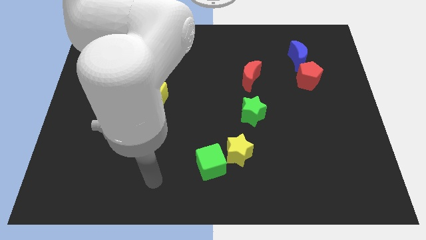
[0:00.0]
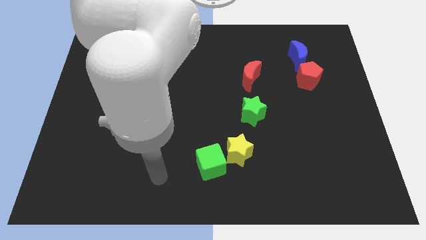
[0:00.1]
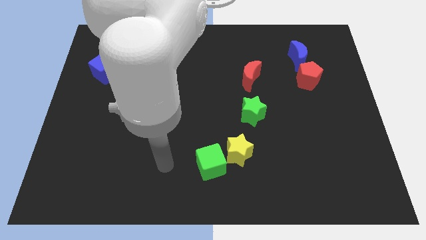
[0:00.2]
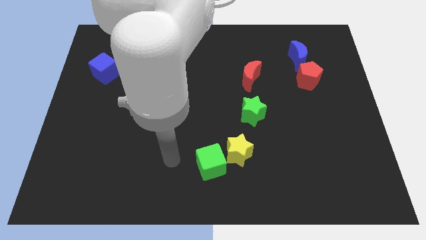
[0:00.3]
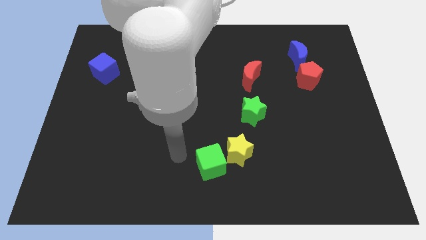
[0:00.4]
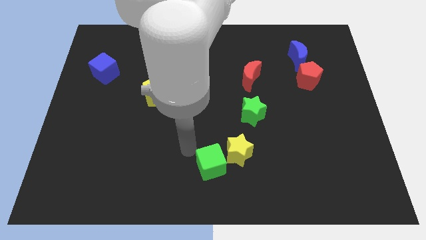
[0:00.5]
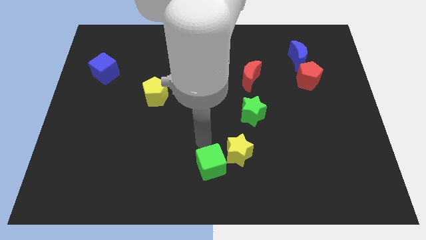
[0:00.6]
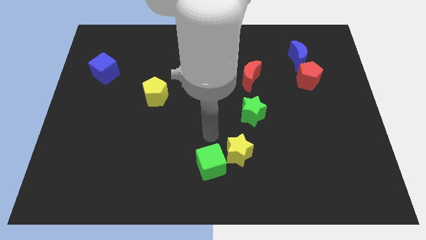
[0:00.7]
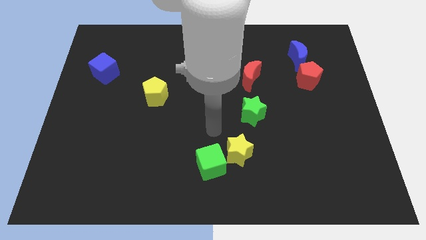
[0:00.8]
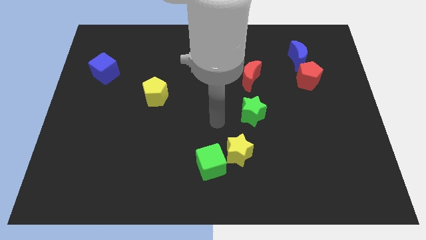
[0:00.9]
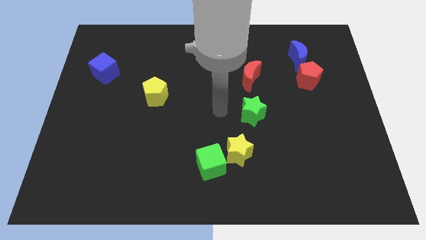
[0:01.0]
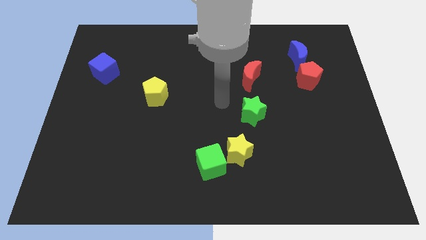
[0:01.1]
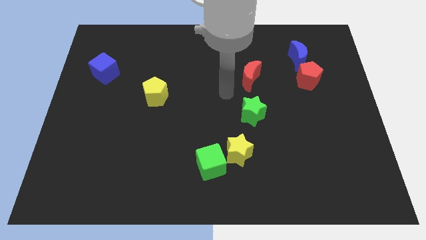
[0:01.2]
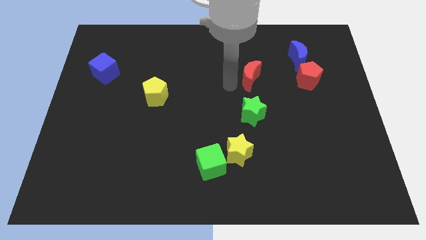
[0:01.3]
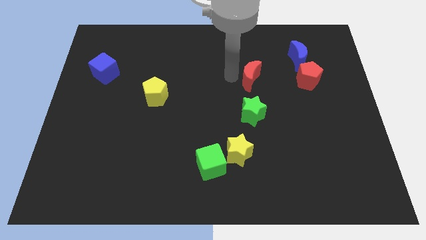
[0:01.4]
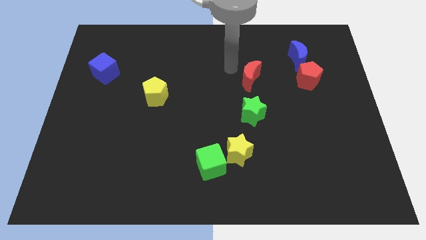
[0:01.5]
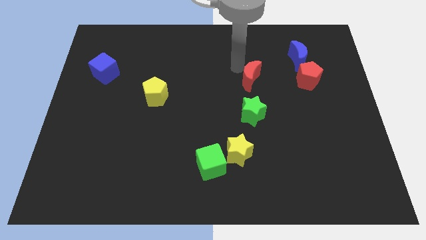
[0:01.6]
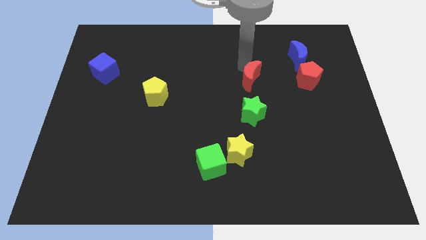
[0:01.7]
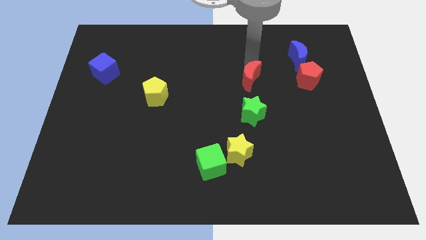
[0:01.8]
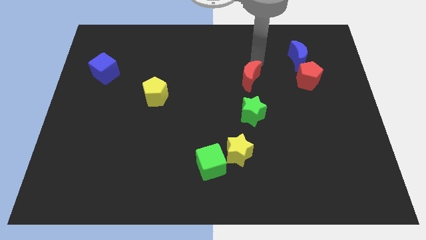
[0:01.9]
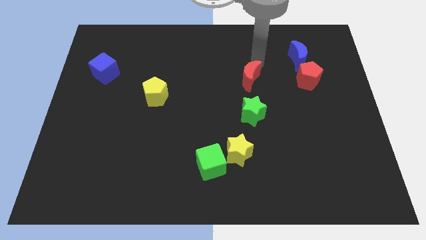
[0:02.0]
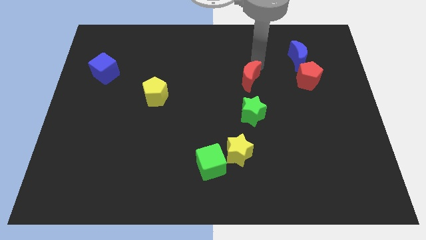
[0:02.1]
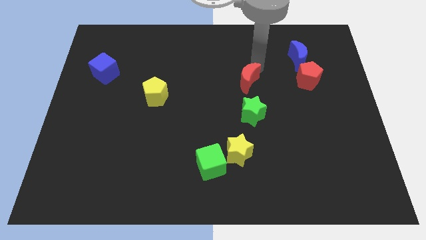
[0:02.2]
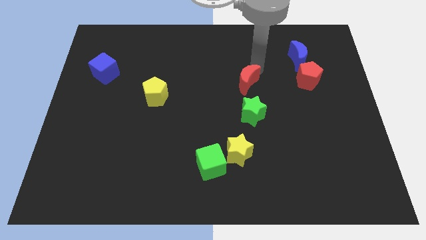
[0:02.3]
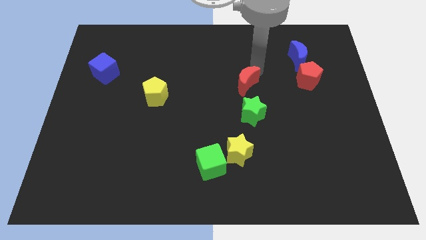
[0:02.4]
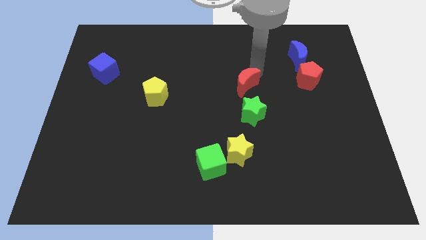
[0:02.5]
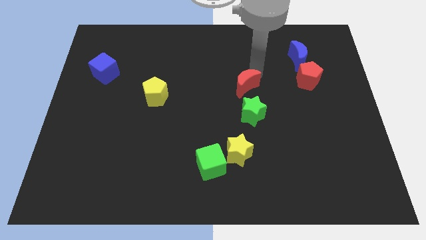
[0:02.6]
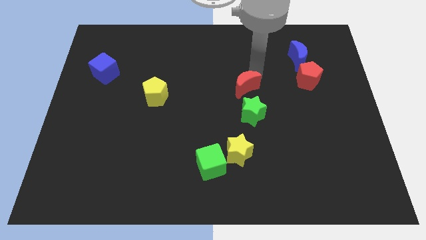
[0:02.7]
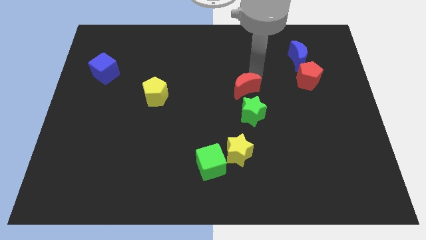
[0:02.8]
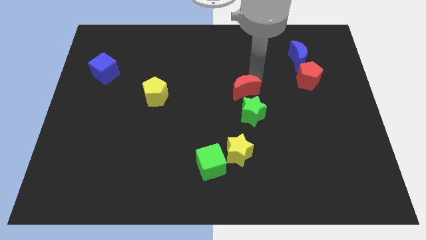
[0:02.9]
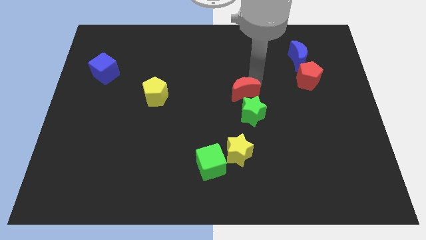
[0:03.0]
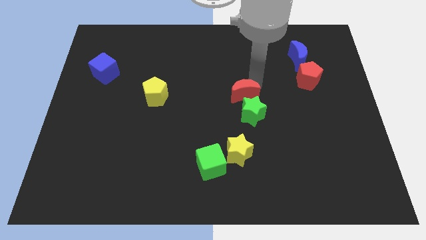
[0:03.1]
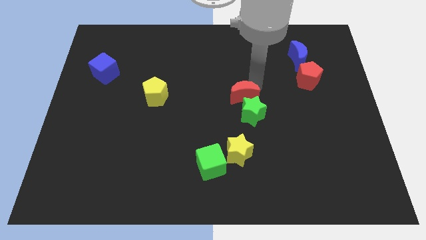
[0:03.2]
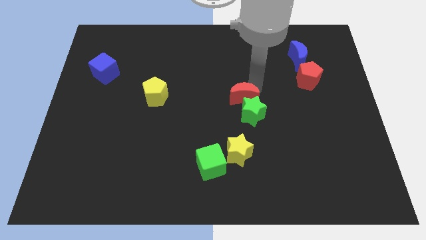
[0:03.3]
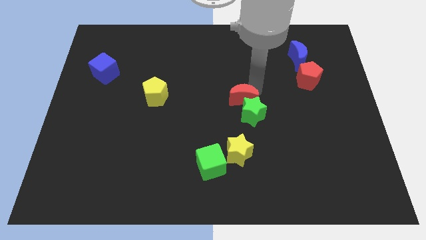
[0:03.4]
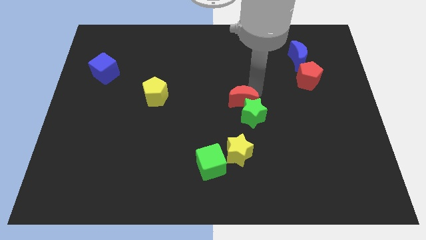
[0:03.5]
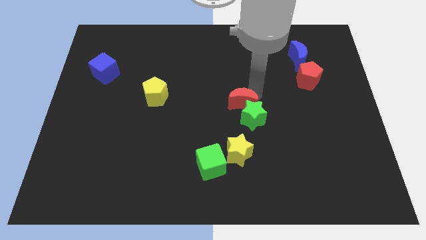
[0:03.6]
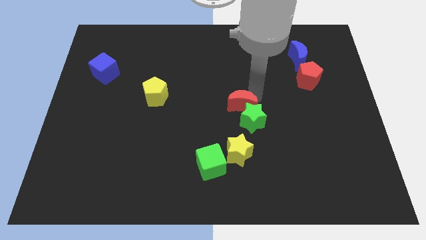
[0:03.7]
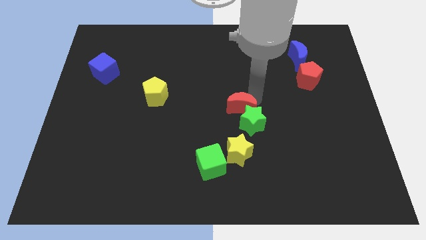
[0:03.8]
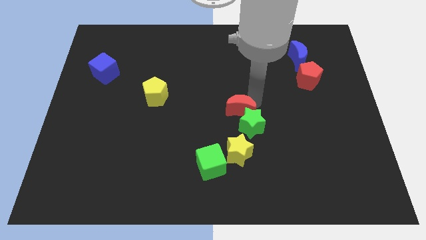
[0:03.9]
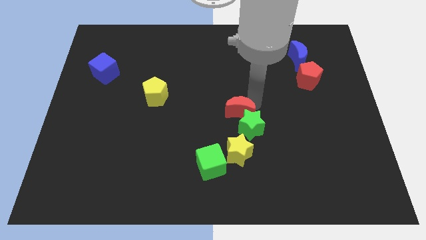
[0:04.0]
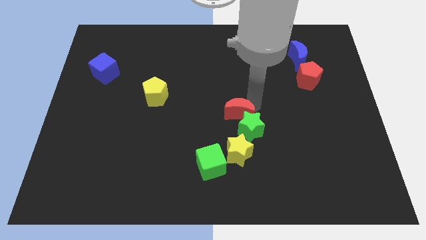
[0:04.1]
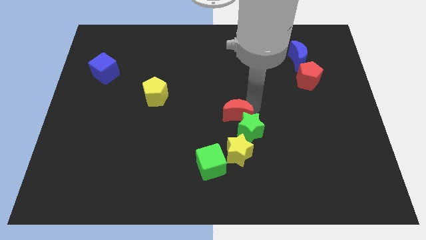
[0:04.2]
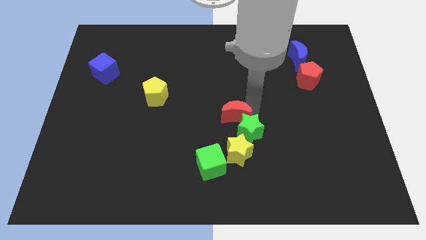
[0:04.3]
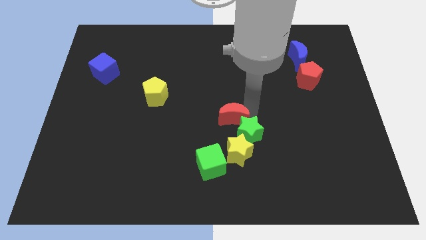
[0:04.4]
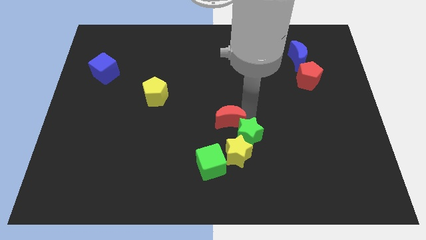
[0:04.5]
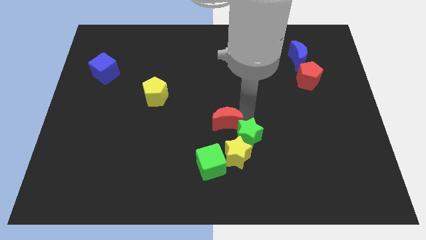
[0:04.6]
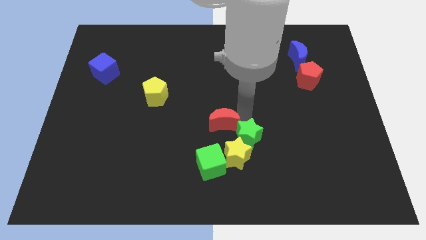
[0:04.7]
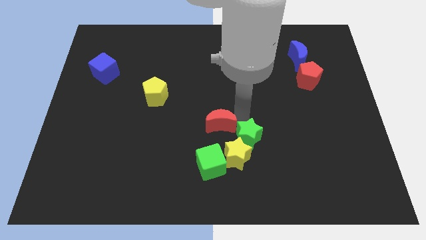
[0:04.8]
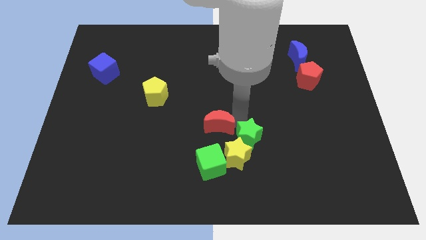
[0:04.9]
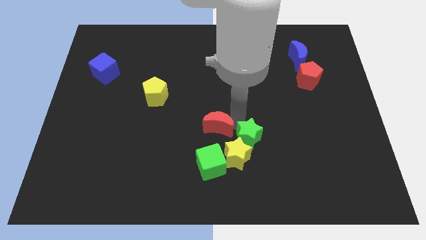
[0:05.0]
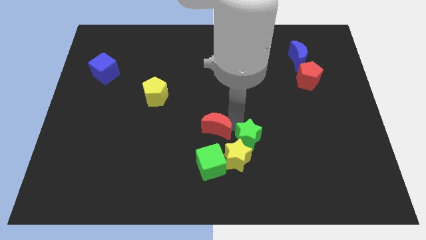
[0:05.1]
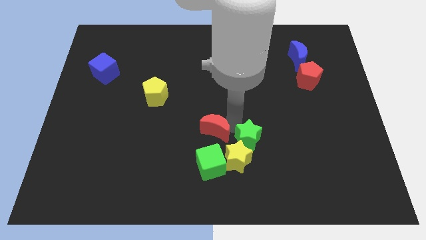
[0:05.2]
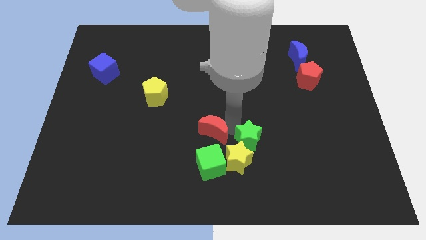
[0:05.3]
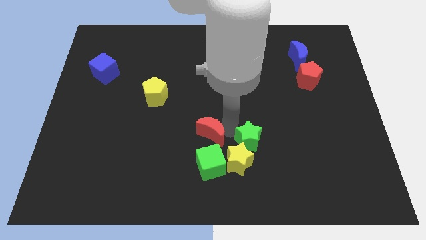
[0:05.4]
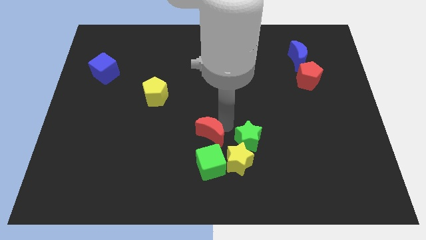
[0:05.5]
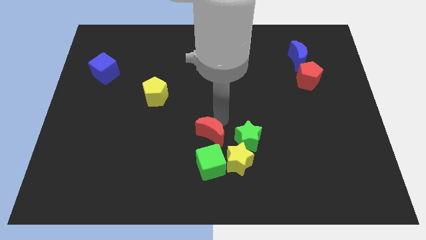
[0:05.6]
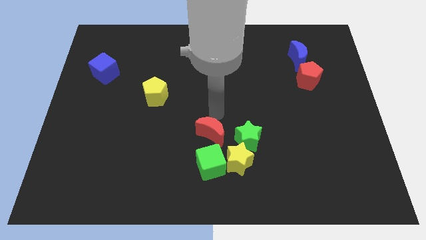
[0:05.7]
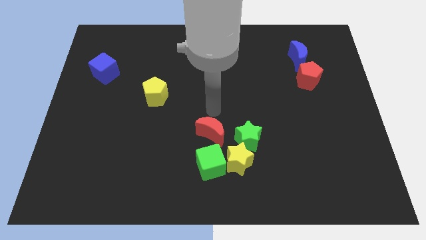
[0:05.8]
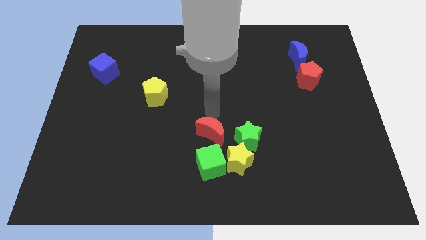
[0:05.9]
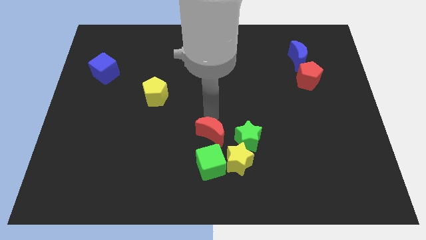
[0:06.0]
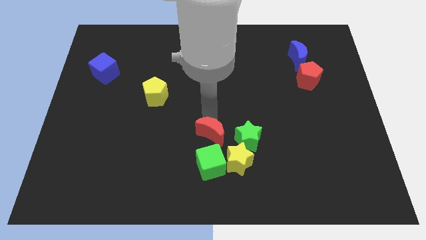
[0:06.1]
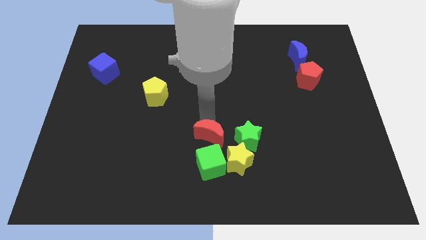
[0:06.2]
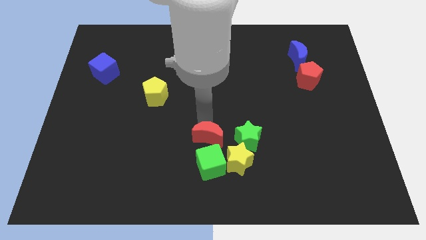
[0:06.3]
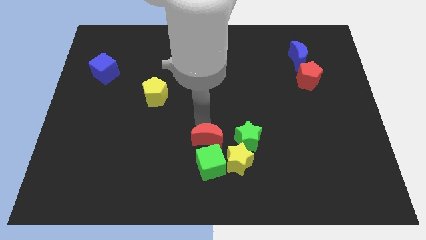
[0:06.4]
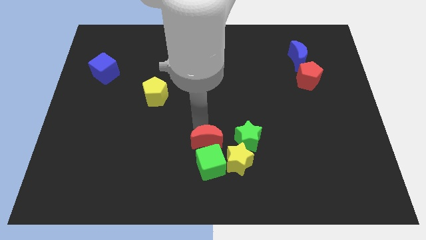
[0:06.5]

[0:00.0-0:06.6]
slide the red moon close to the green cube

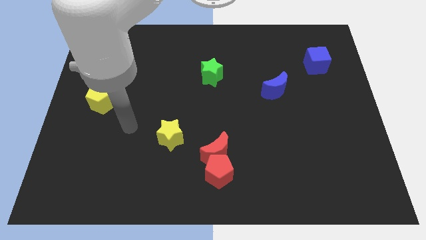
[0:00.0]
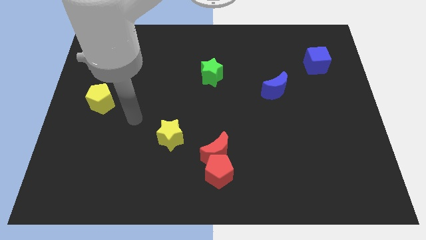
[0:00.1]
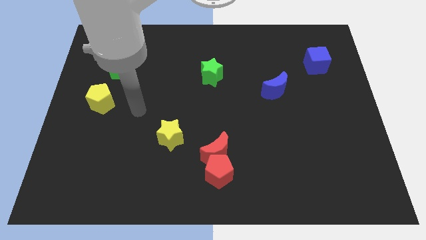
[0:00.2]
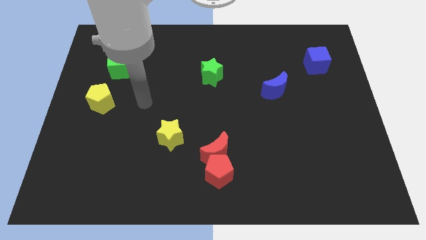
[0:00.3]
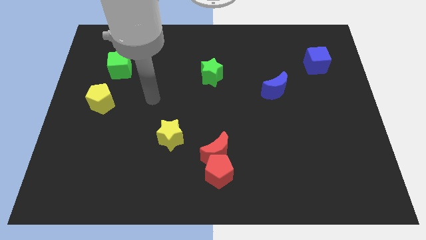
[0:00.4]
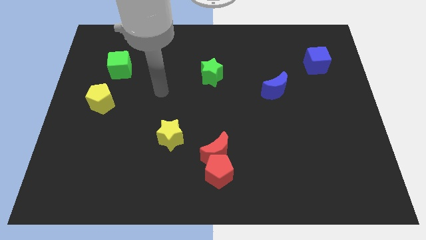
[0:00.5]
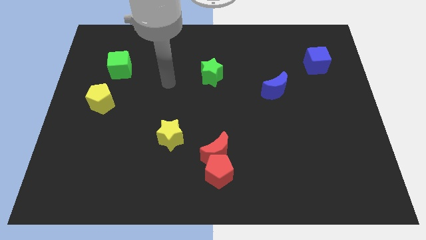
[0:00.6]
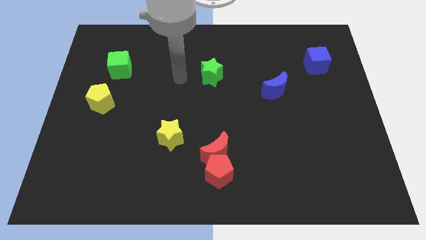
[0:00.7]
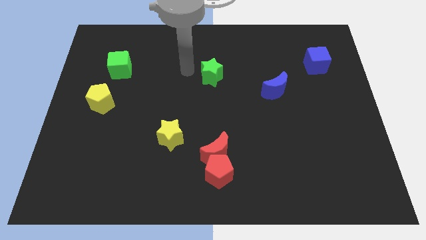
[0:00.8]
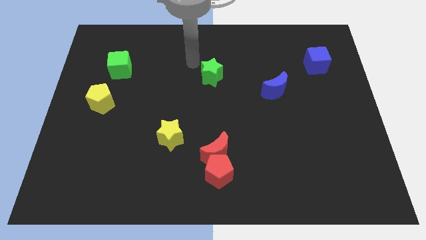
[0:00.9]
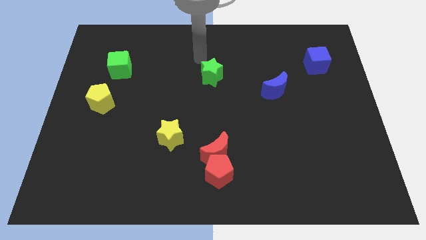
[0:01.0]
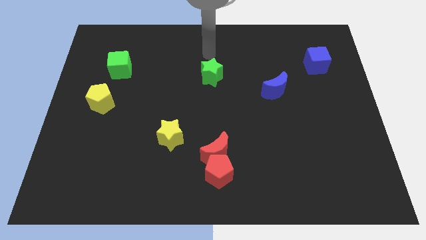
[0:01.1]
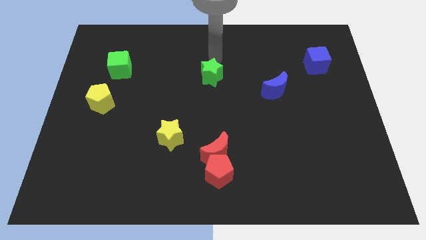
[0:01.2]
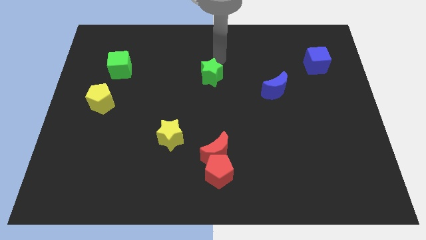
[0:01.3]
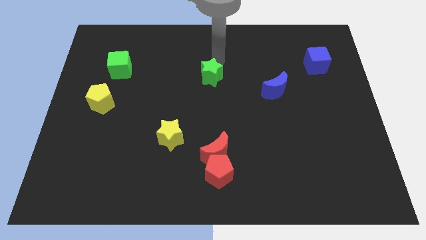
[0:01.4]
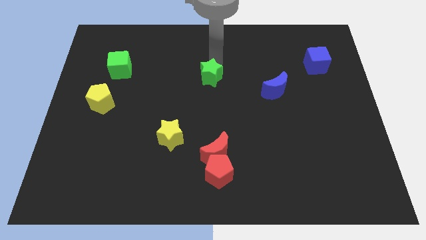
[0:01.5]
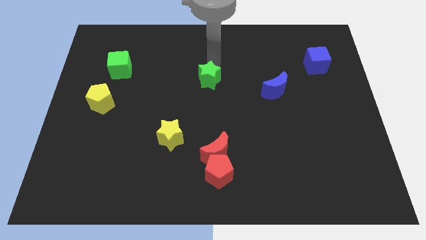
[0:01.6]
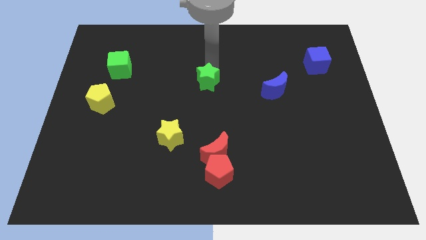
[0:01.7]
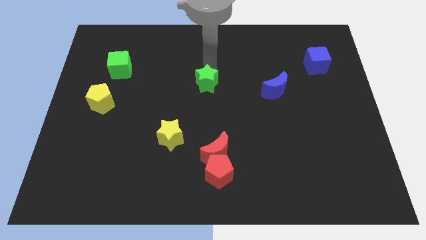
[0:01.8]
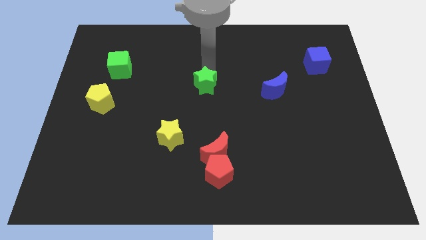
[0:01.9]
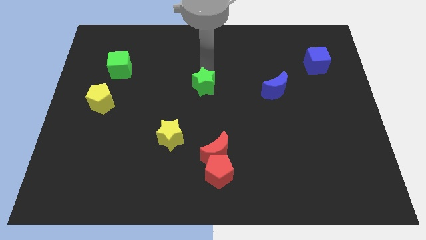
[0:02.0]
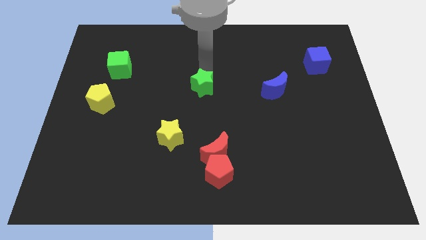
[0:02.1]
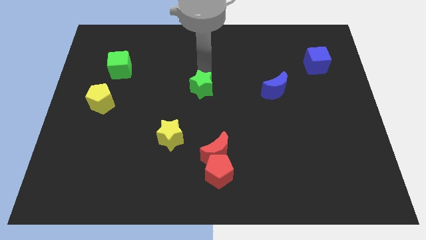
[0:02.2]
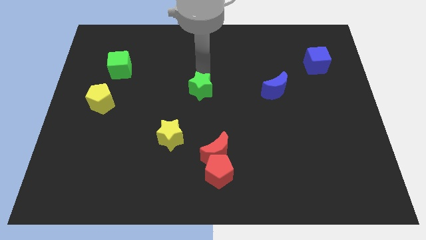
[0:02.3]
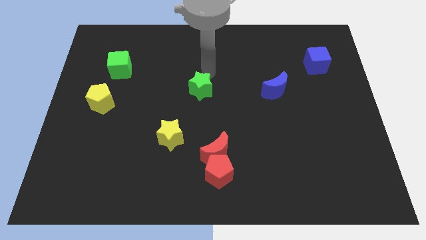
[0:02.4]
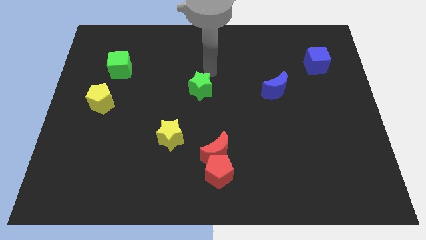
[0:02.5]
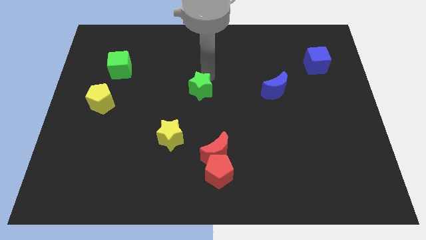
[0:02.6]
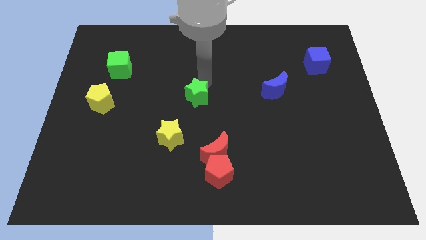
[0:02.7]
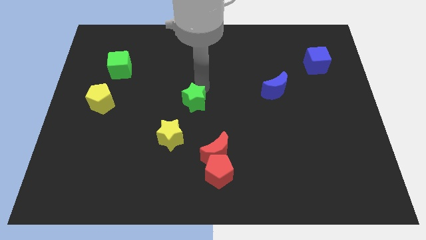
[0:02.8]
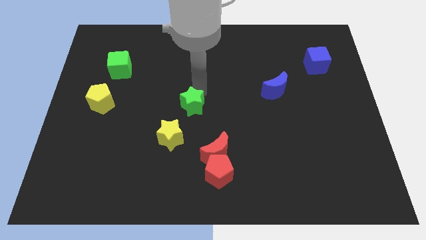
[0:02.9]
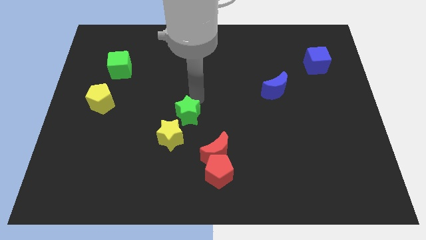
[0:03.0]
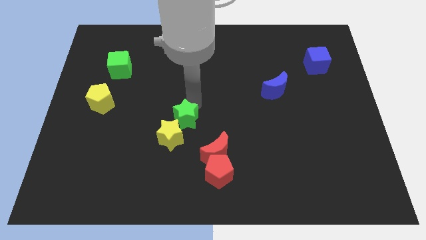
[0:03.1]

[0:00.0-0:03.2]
move the green star towards the yellow star
